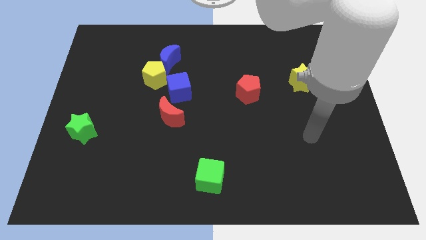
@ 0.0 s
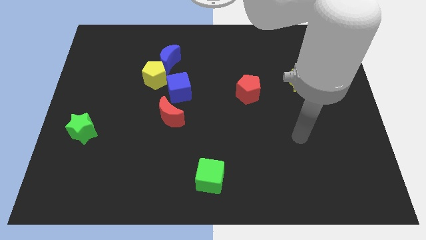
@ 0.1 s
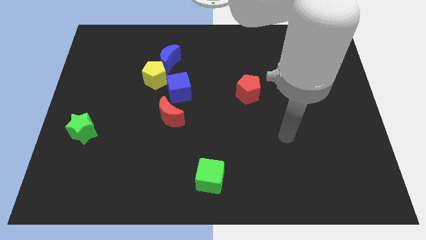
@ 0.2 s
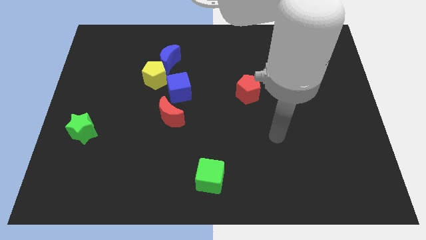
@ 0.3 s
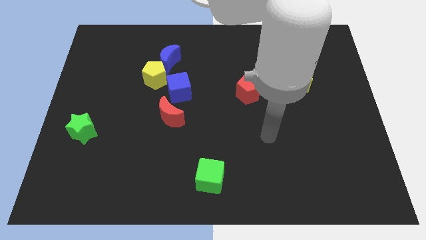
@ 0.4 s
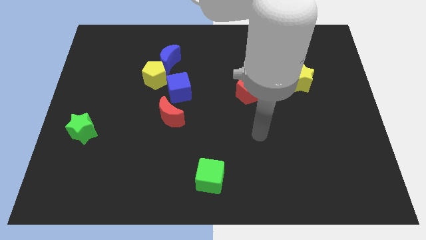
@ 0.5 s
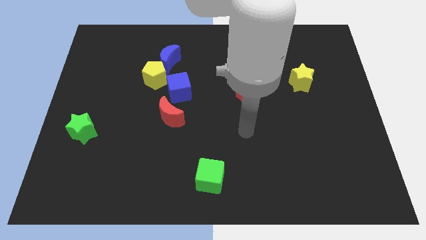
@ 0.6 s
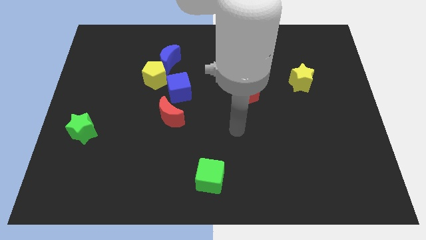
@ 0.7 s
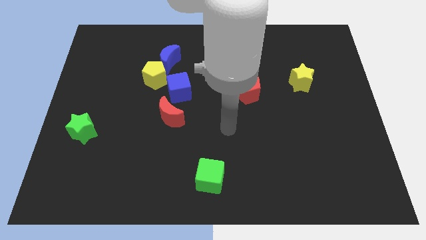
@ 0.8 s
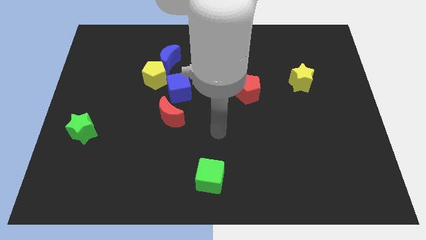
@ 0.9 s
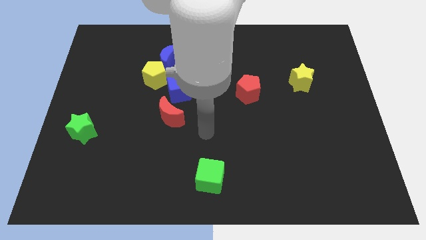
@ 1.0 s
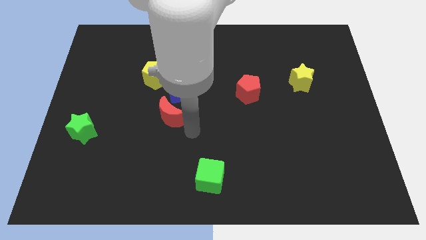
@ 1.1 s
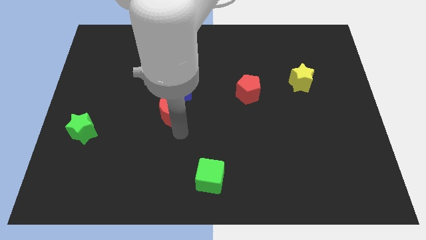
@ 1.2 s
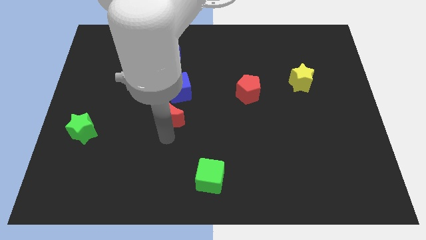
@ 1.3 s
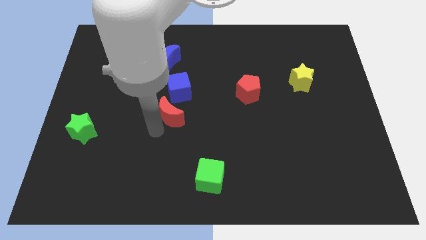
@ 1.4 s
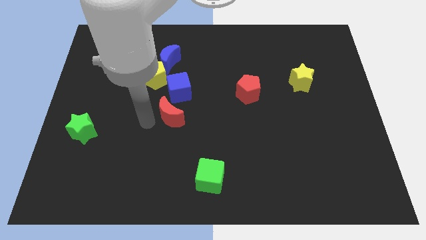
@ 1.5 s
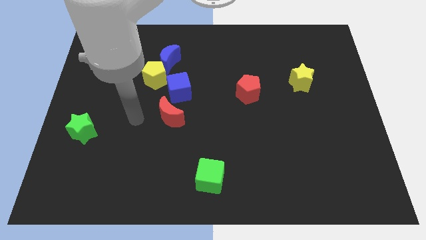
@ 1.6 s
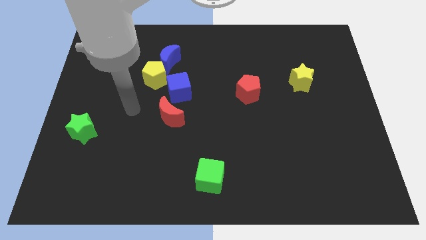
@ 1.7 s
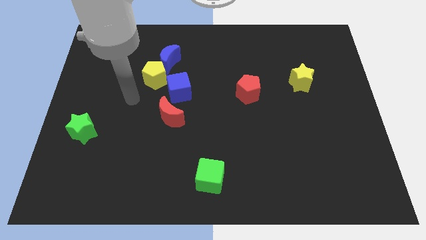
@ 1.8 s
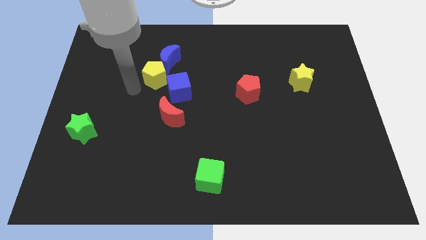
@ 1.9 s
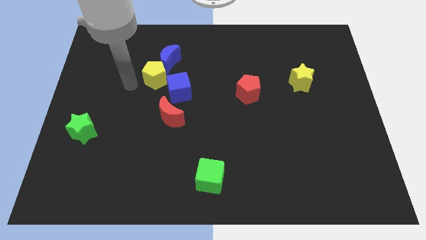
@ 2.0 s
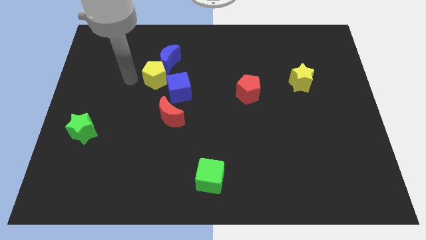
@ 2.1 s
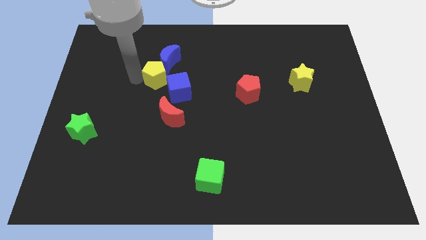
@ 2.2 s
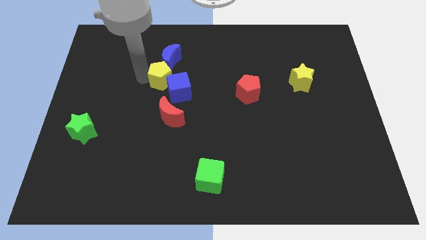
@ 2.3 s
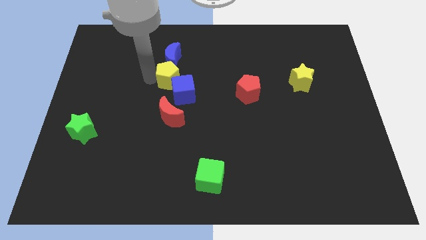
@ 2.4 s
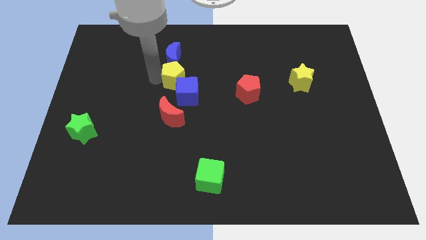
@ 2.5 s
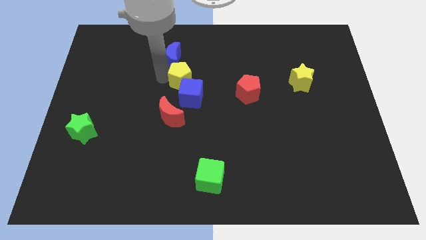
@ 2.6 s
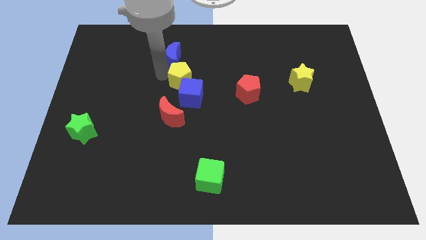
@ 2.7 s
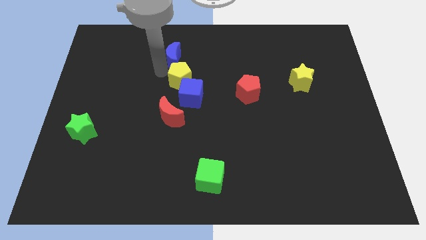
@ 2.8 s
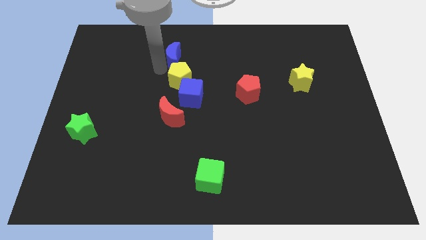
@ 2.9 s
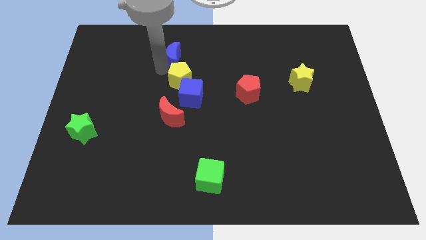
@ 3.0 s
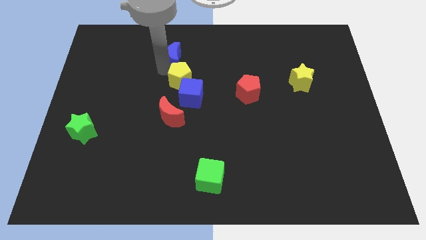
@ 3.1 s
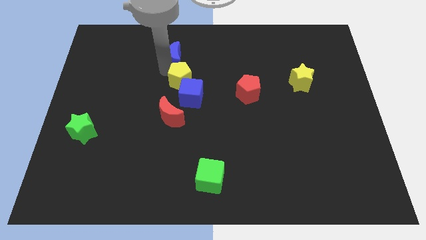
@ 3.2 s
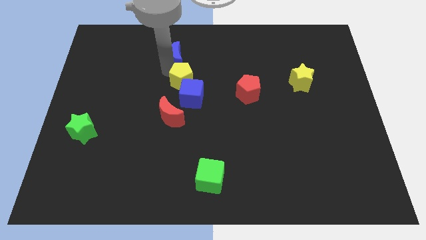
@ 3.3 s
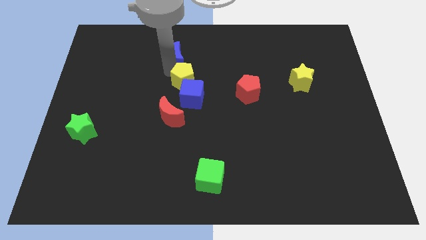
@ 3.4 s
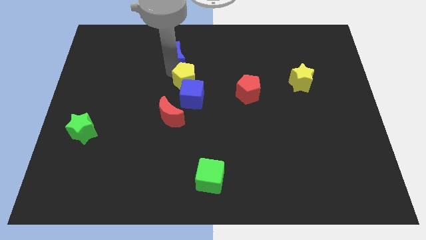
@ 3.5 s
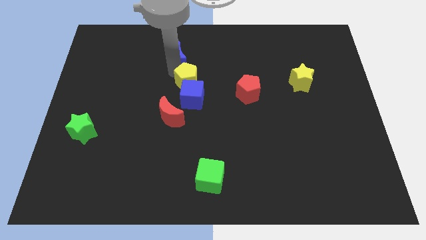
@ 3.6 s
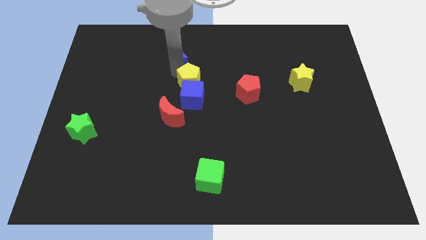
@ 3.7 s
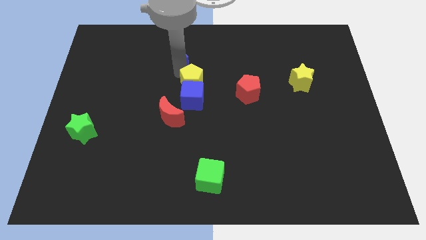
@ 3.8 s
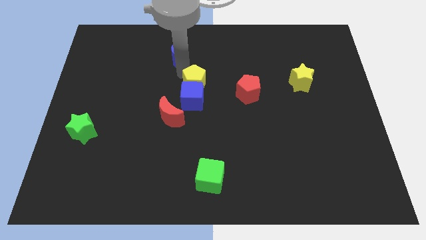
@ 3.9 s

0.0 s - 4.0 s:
push the yellow pentagon down and then right a little bit

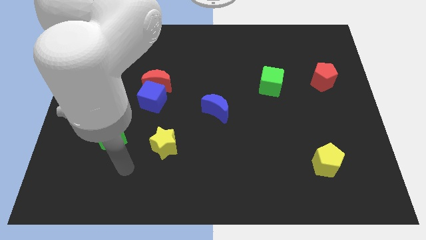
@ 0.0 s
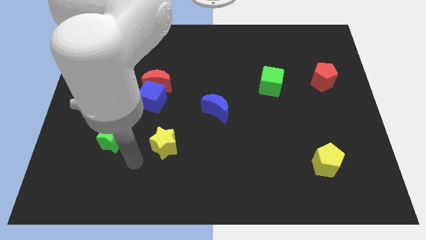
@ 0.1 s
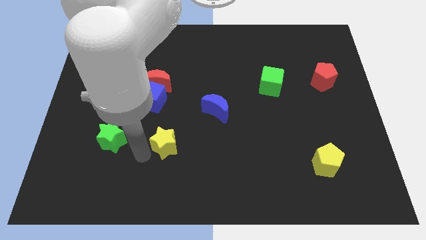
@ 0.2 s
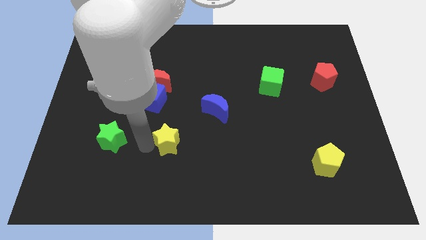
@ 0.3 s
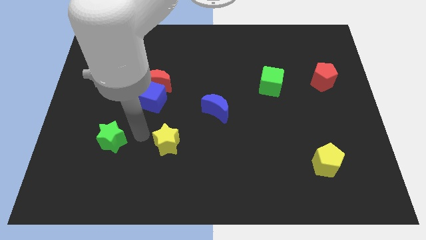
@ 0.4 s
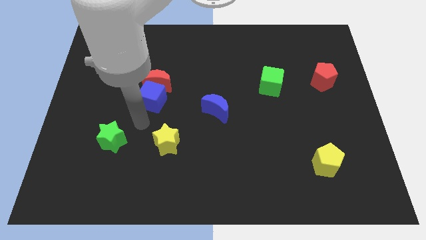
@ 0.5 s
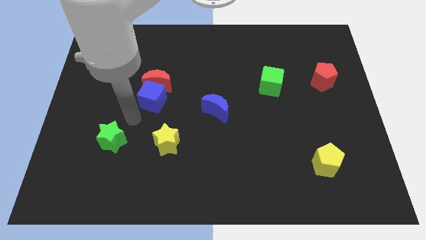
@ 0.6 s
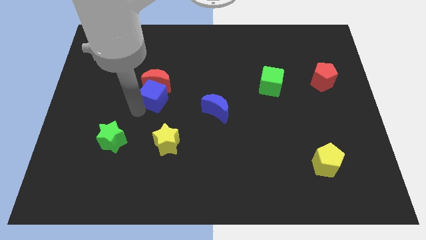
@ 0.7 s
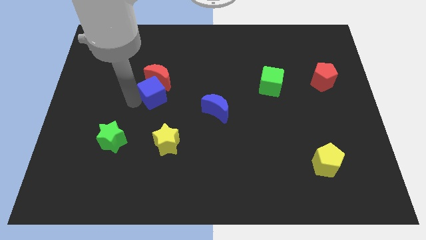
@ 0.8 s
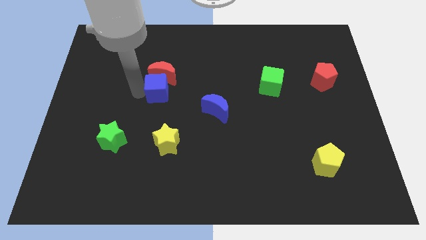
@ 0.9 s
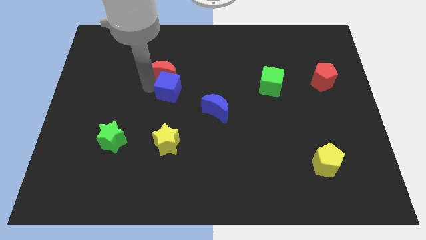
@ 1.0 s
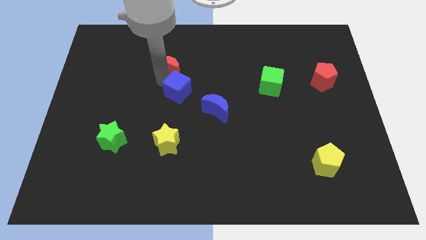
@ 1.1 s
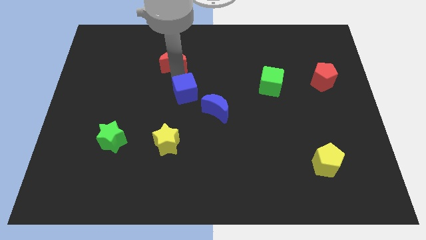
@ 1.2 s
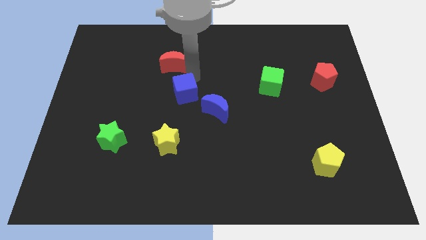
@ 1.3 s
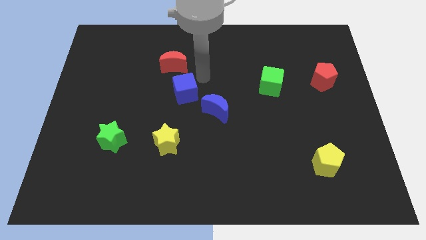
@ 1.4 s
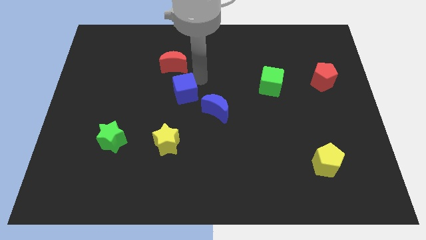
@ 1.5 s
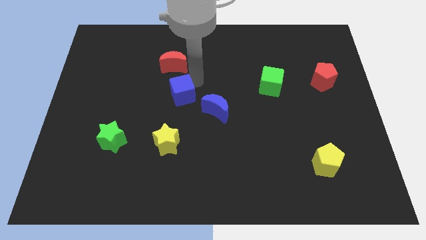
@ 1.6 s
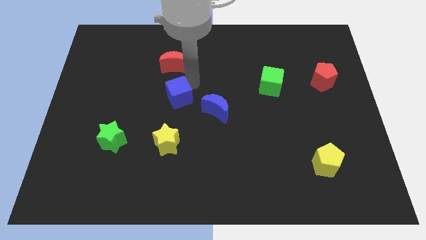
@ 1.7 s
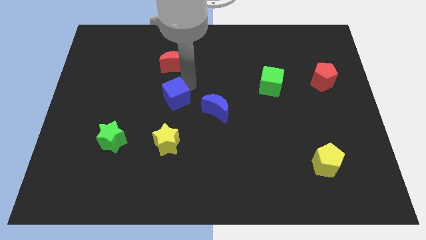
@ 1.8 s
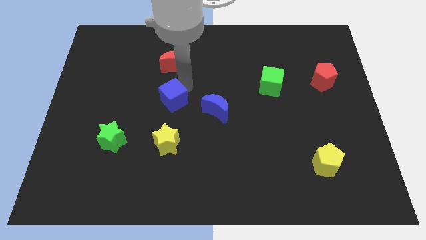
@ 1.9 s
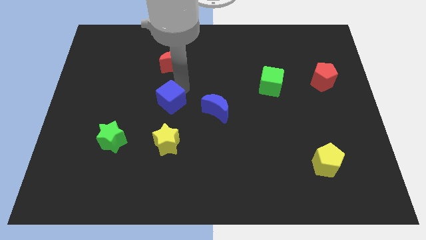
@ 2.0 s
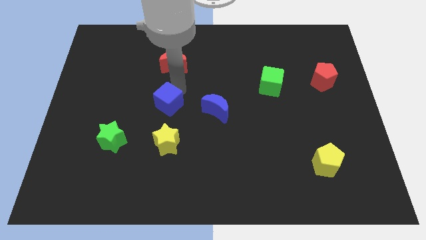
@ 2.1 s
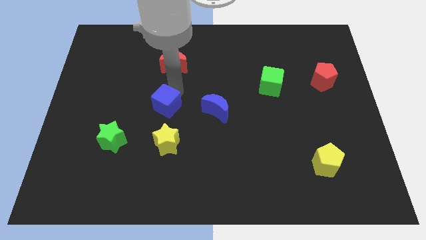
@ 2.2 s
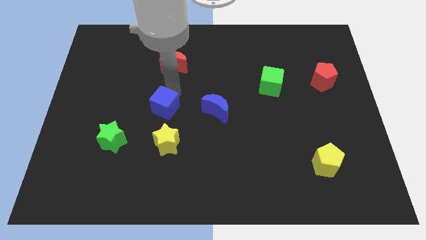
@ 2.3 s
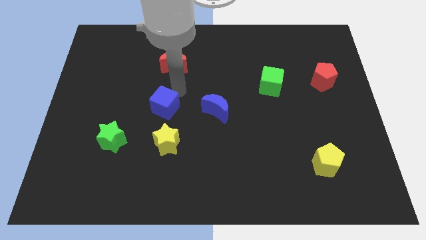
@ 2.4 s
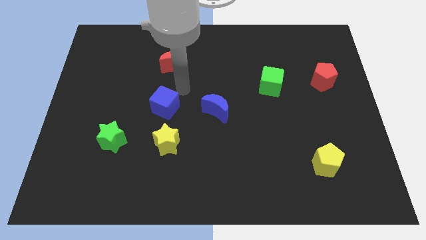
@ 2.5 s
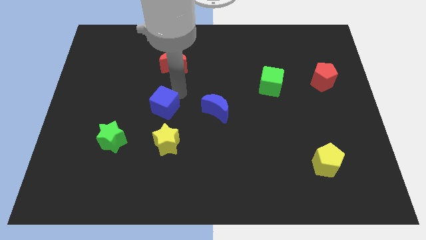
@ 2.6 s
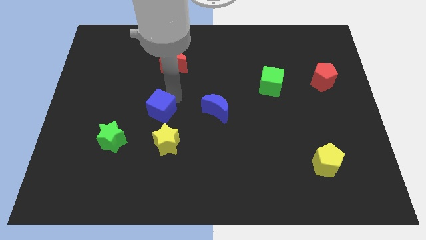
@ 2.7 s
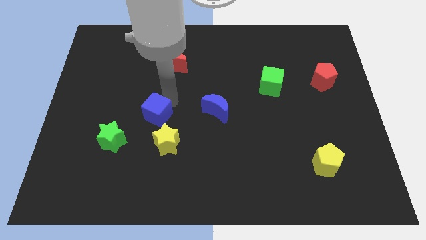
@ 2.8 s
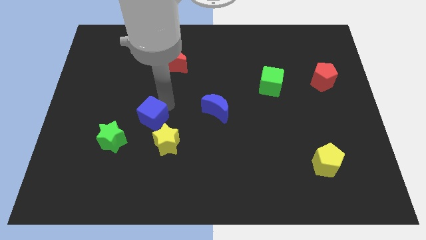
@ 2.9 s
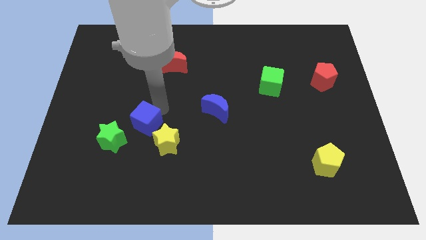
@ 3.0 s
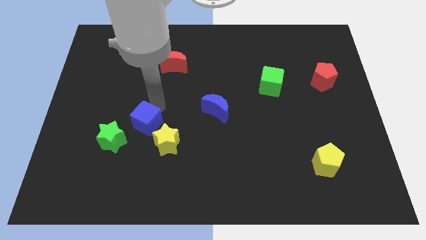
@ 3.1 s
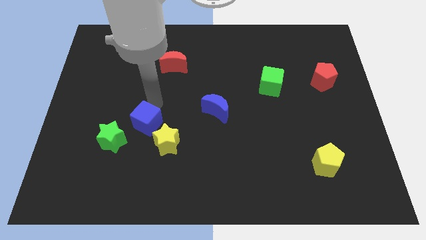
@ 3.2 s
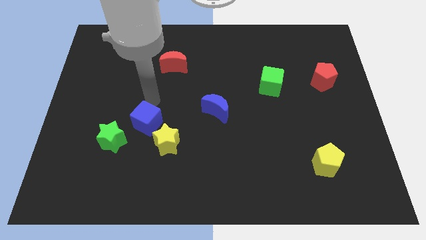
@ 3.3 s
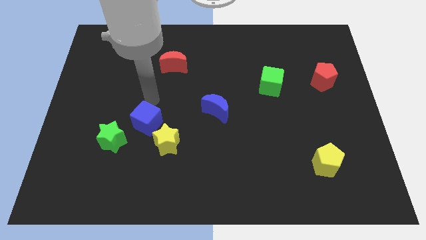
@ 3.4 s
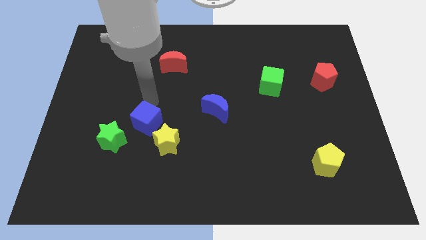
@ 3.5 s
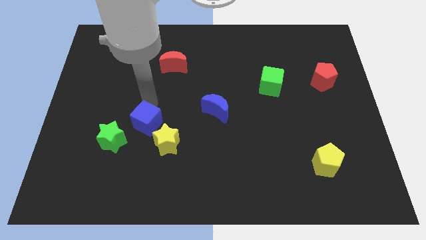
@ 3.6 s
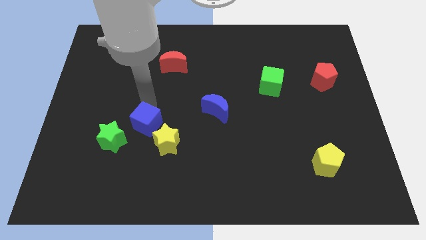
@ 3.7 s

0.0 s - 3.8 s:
slide the blue cube a little down
